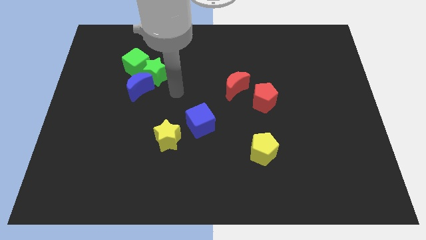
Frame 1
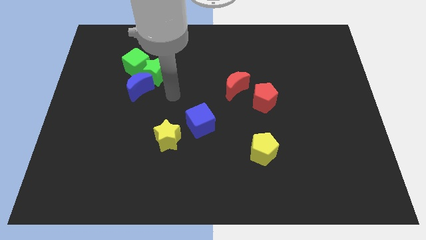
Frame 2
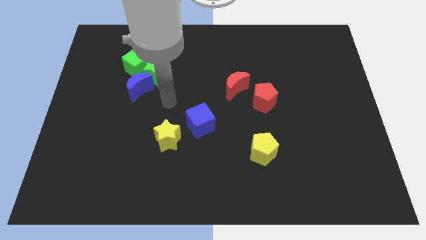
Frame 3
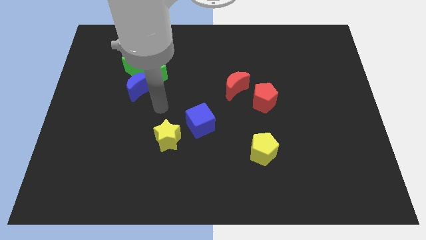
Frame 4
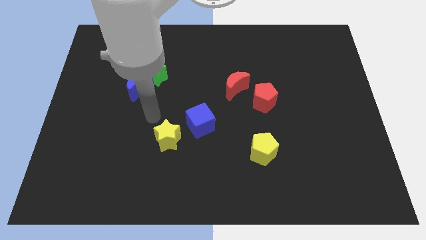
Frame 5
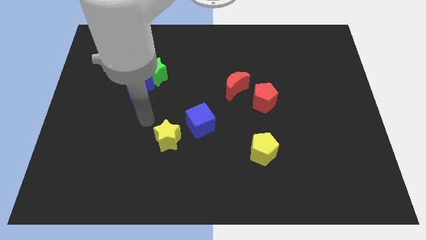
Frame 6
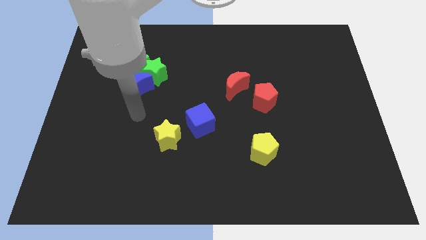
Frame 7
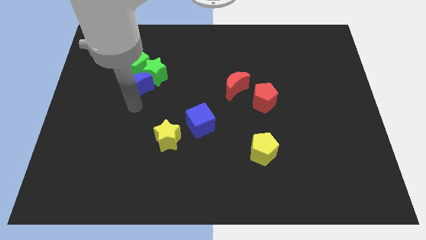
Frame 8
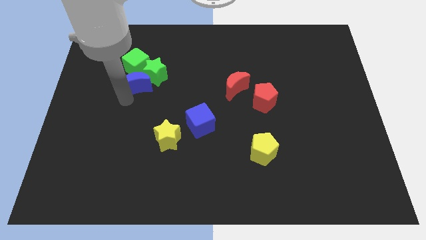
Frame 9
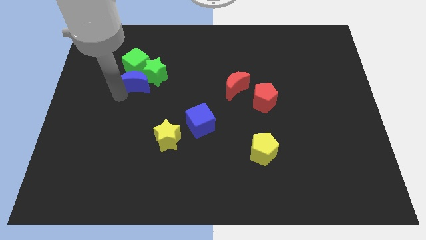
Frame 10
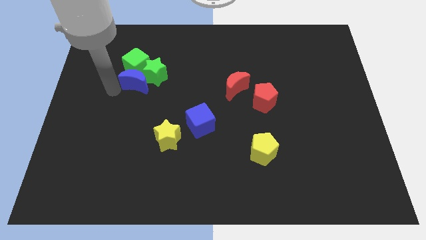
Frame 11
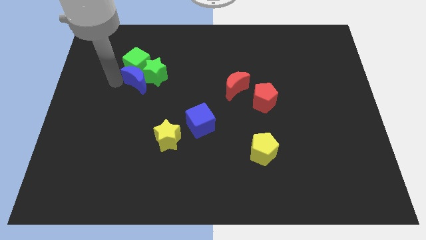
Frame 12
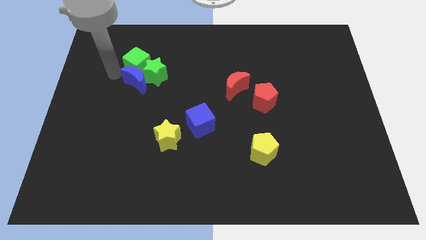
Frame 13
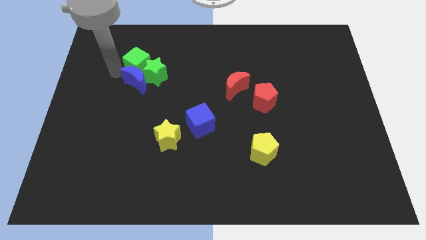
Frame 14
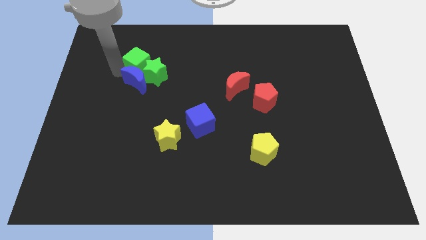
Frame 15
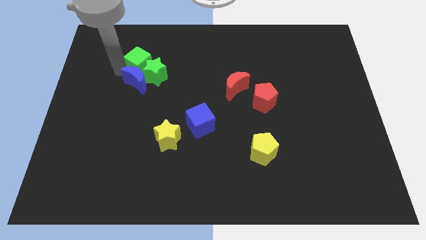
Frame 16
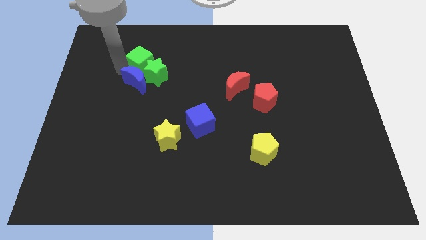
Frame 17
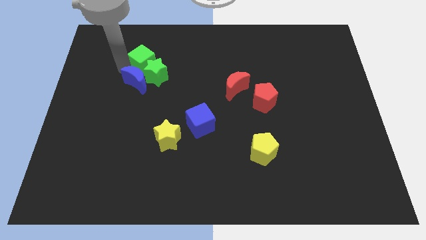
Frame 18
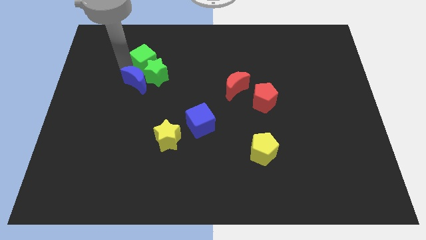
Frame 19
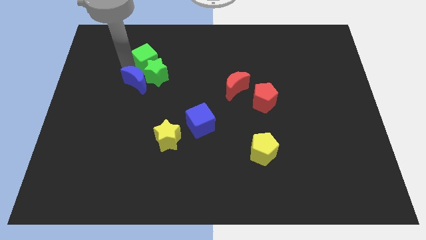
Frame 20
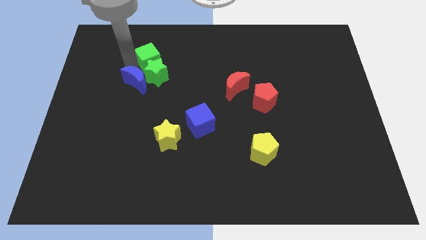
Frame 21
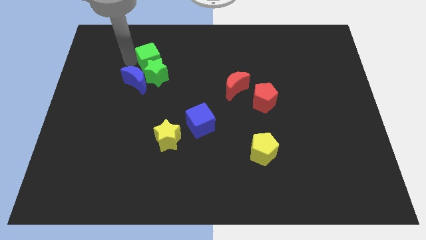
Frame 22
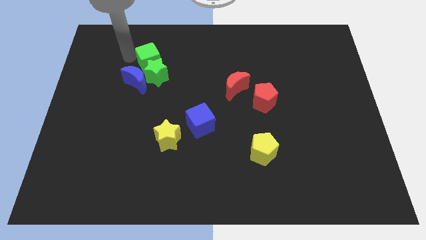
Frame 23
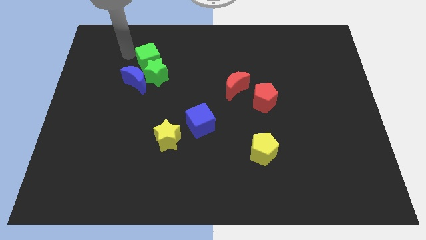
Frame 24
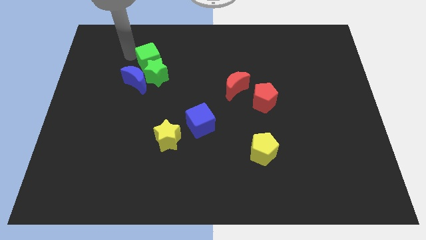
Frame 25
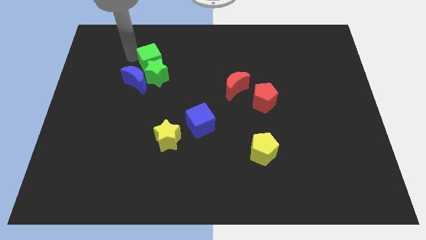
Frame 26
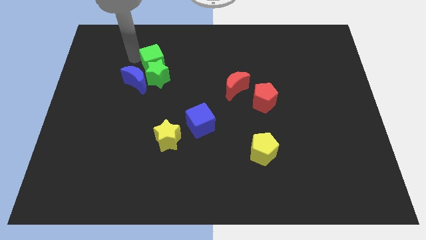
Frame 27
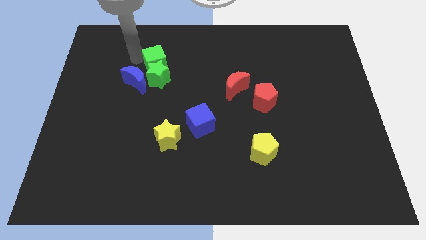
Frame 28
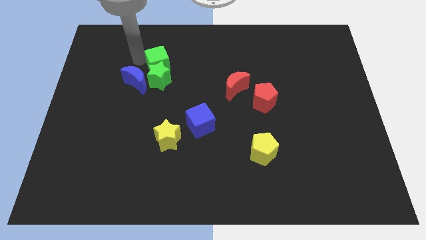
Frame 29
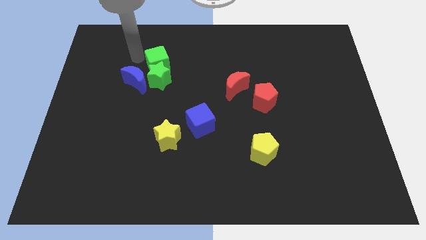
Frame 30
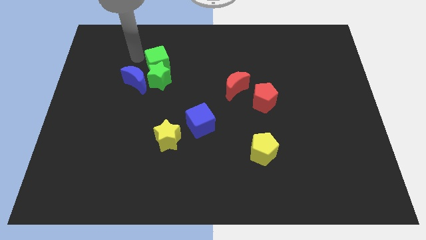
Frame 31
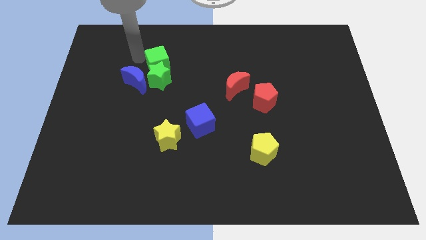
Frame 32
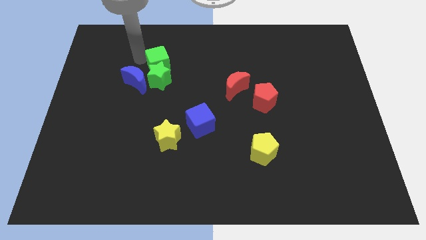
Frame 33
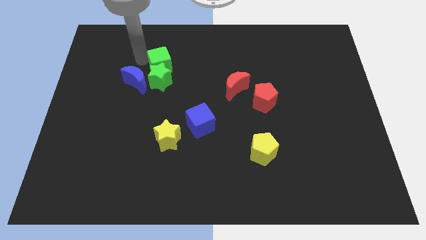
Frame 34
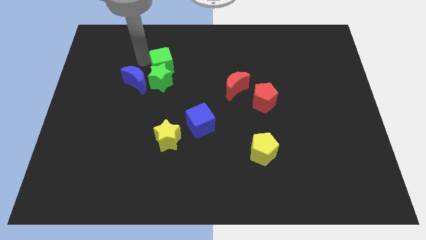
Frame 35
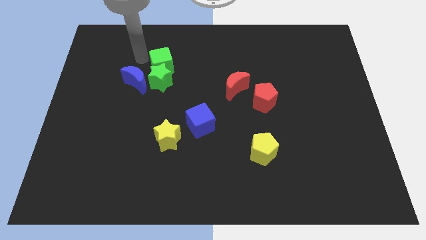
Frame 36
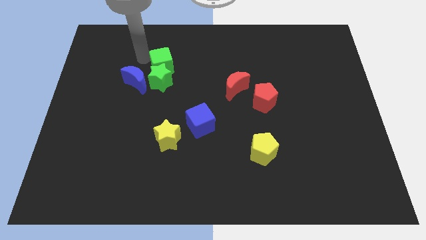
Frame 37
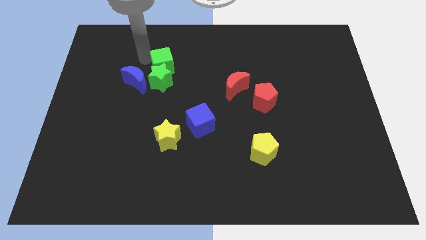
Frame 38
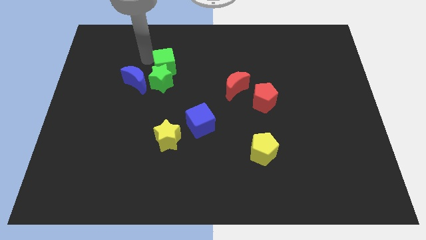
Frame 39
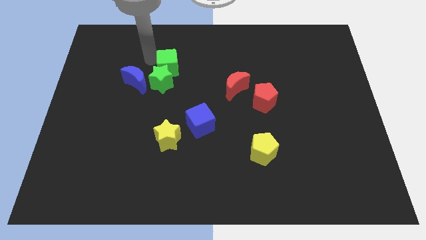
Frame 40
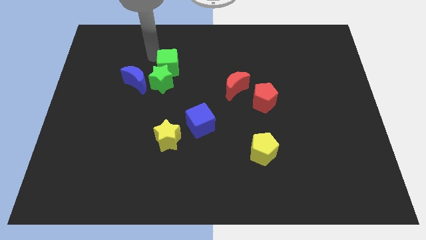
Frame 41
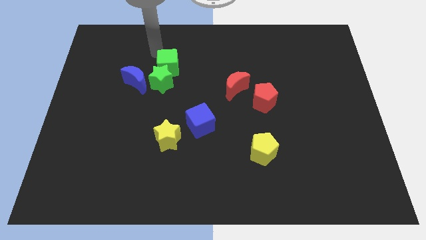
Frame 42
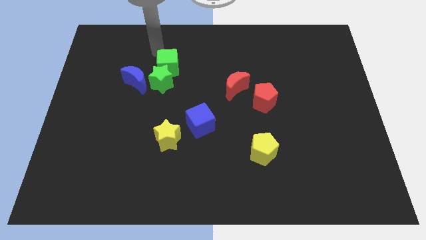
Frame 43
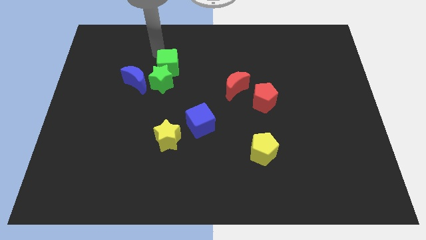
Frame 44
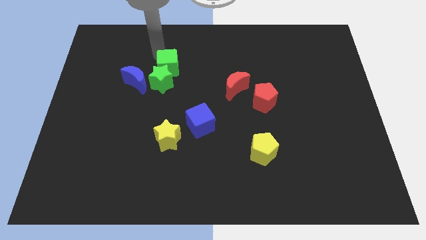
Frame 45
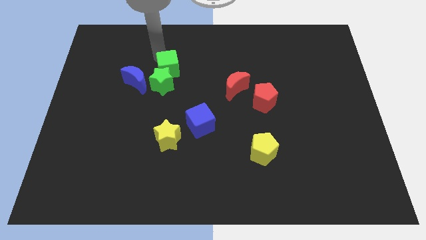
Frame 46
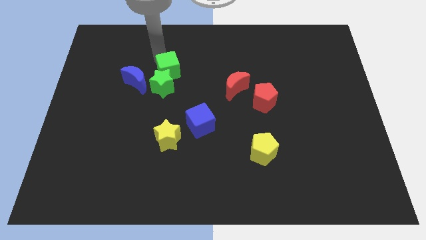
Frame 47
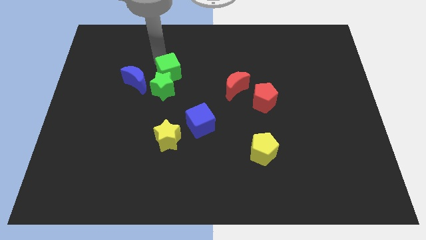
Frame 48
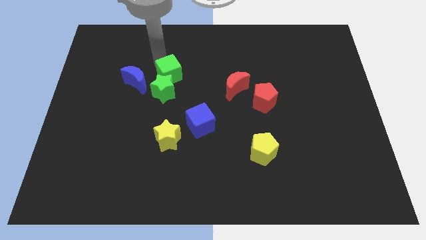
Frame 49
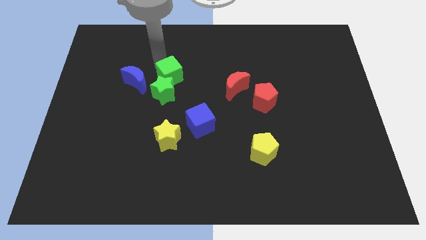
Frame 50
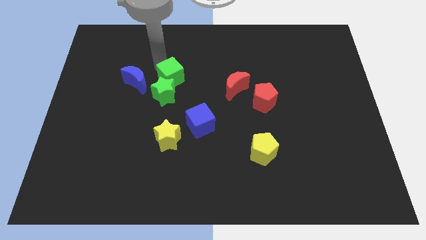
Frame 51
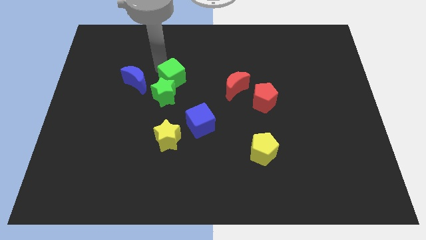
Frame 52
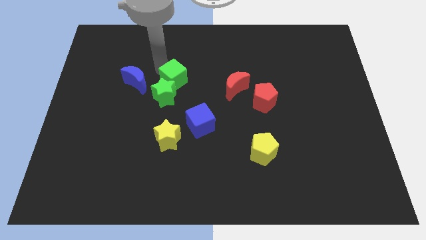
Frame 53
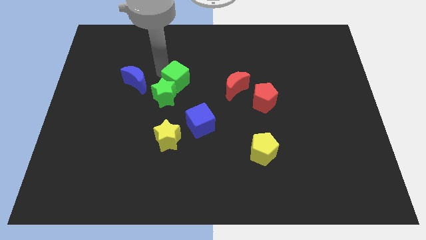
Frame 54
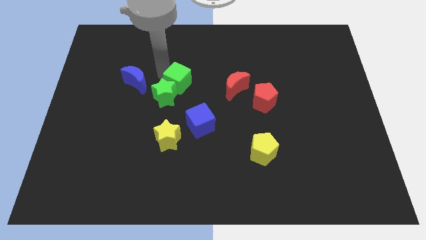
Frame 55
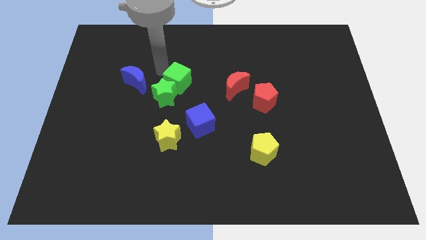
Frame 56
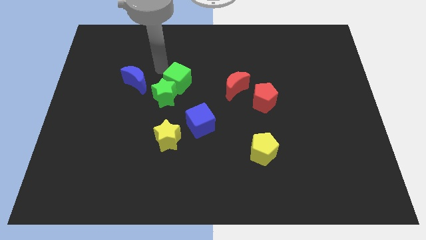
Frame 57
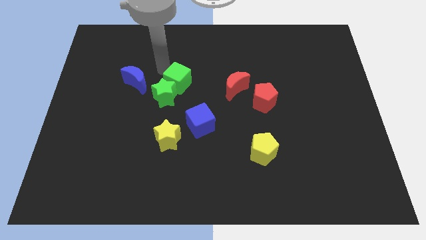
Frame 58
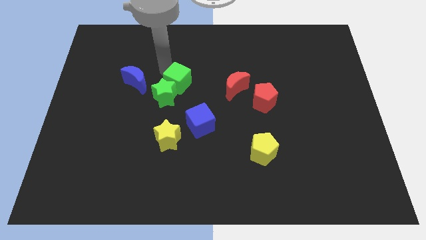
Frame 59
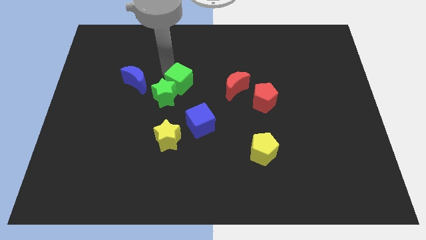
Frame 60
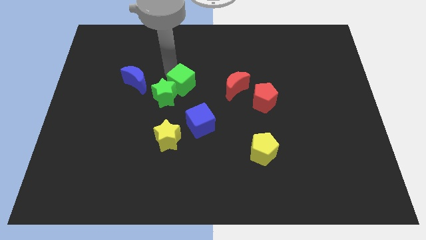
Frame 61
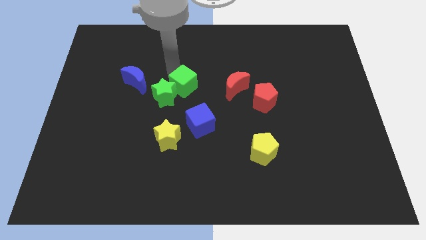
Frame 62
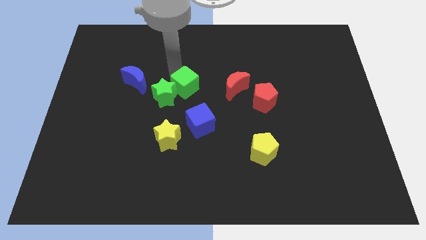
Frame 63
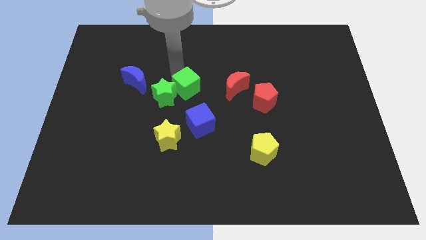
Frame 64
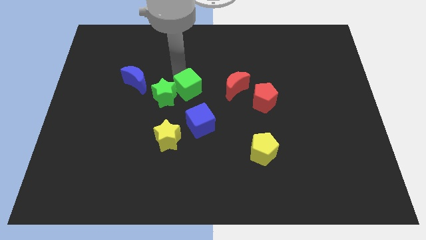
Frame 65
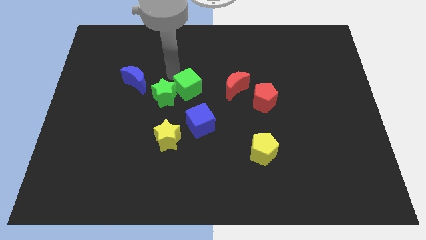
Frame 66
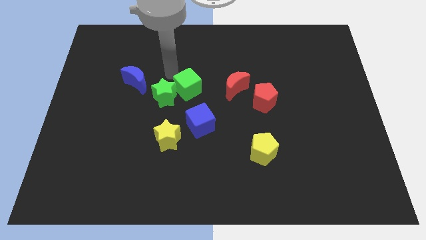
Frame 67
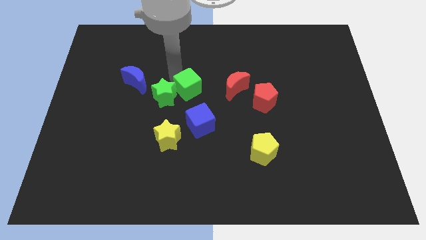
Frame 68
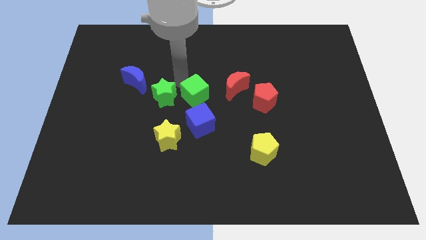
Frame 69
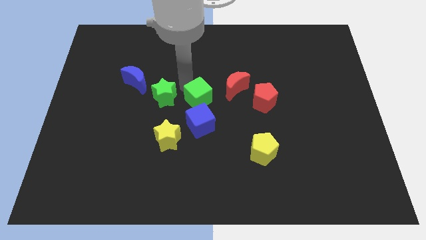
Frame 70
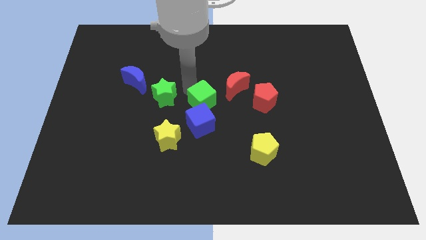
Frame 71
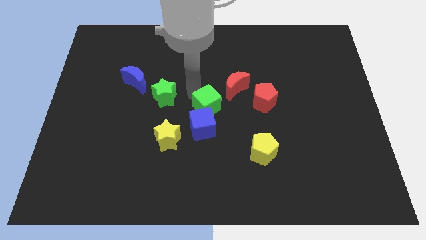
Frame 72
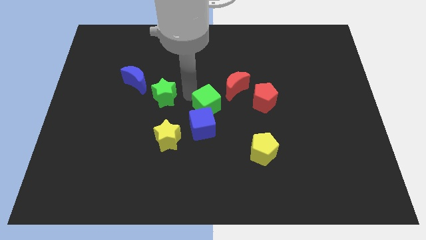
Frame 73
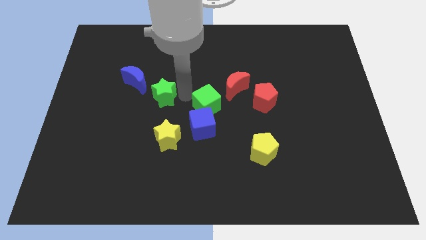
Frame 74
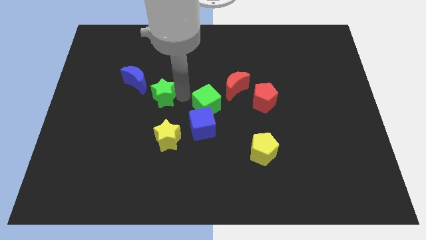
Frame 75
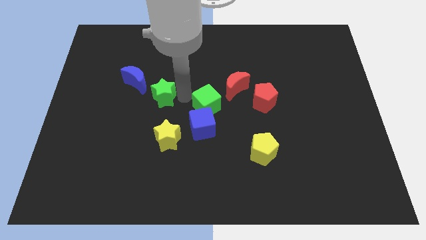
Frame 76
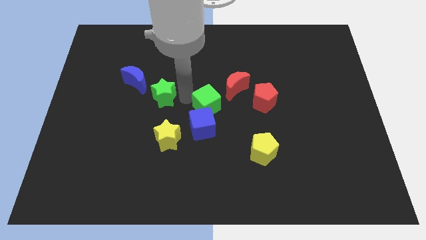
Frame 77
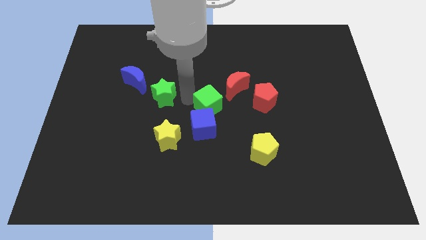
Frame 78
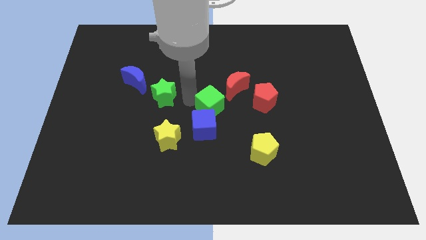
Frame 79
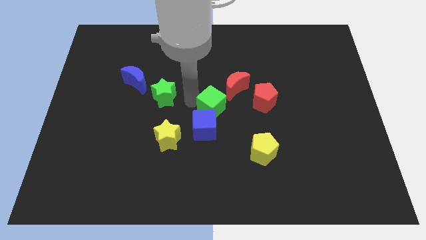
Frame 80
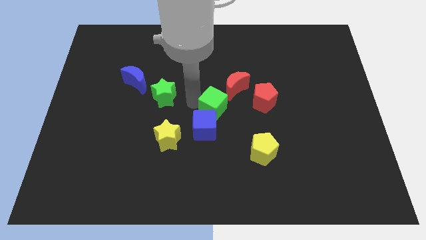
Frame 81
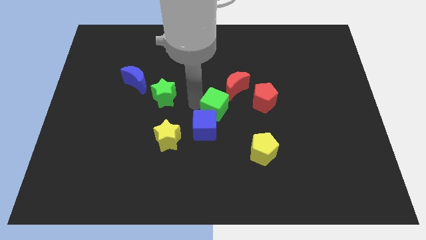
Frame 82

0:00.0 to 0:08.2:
slide the green cube below the red moon
